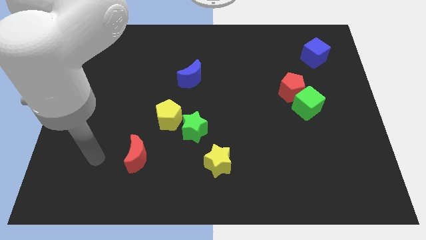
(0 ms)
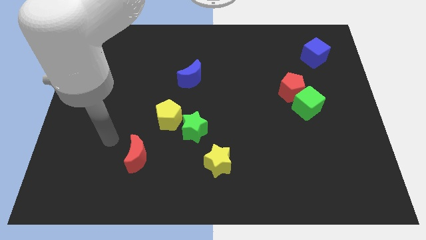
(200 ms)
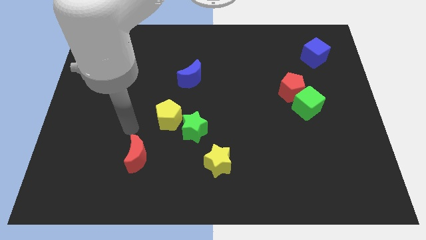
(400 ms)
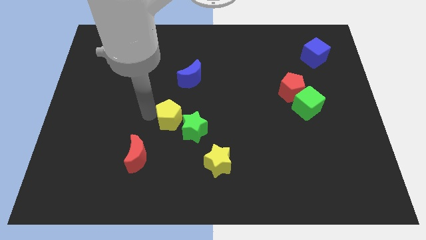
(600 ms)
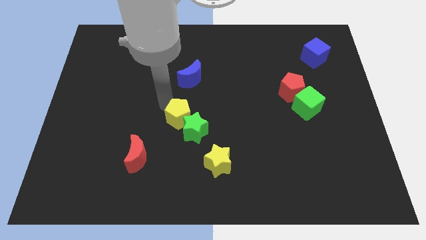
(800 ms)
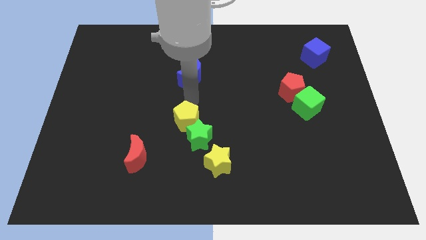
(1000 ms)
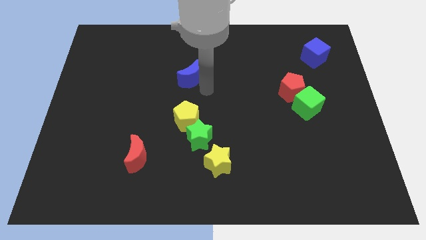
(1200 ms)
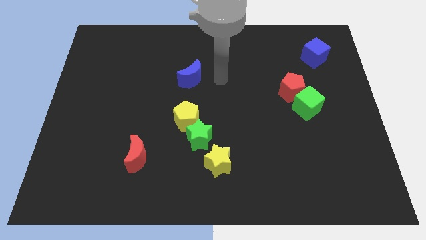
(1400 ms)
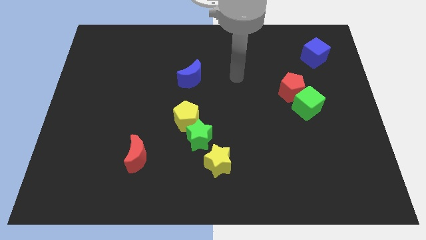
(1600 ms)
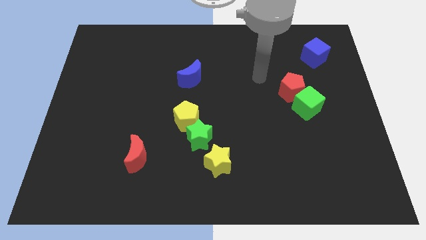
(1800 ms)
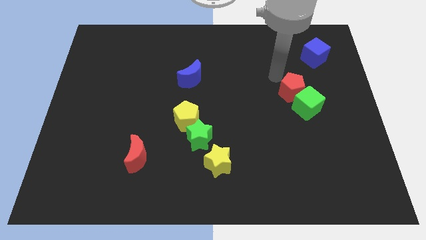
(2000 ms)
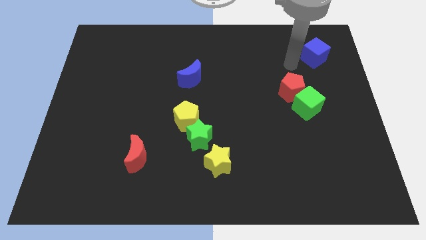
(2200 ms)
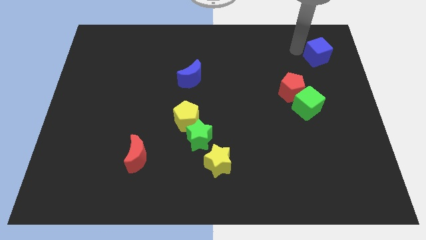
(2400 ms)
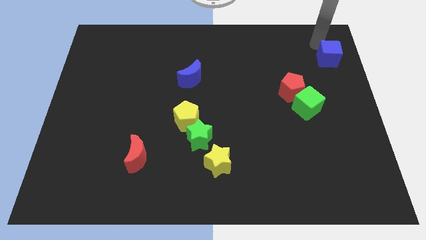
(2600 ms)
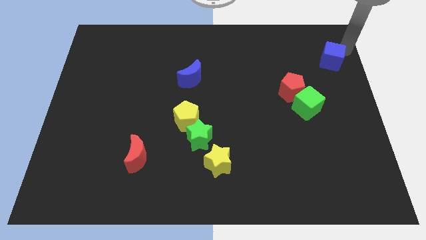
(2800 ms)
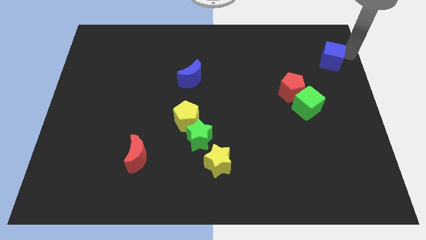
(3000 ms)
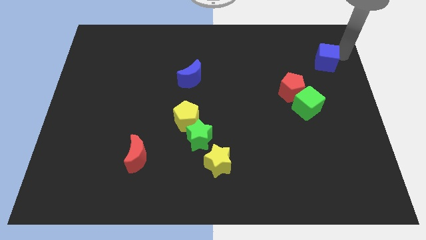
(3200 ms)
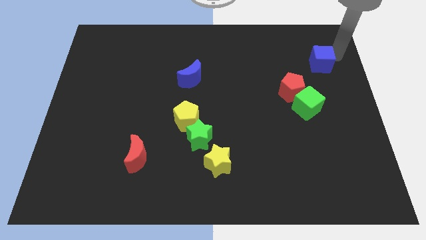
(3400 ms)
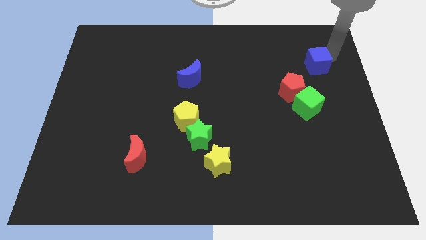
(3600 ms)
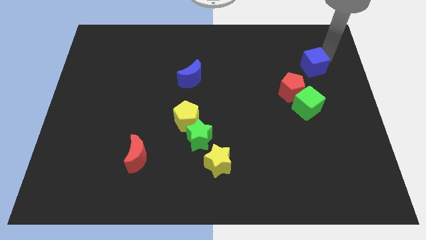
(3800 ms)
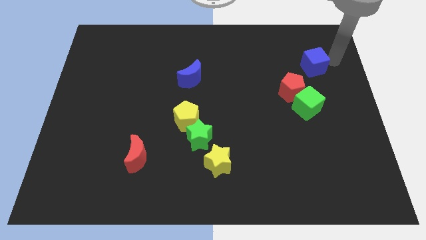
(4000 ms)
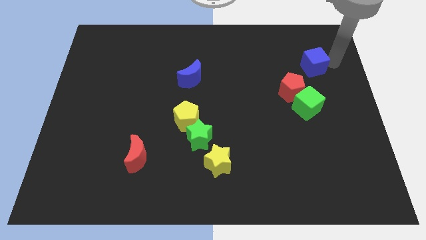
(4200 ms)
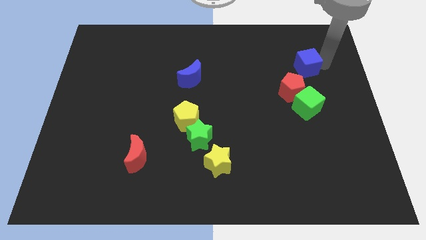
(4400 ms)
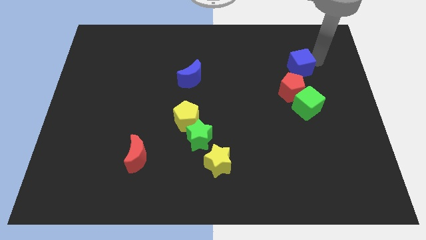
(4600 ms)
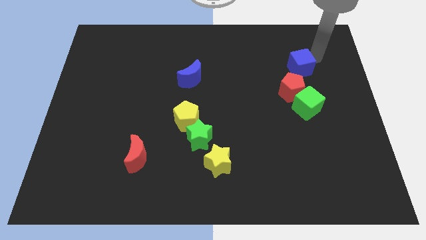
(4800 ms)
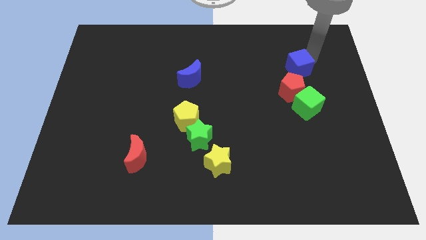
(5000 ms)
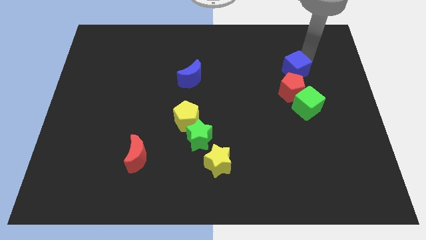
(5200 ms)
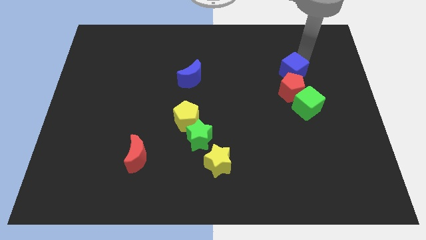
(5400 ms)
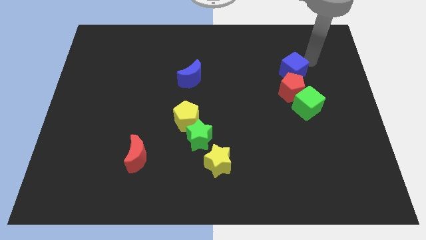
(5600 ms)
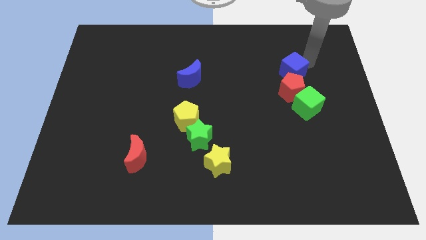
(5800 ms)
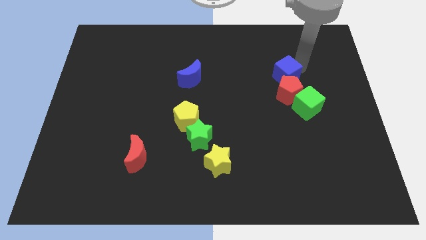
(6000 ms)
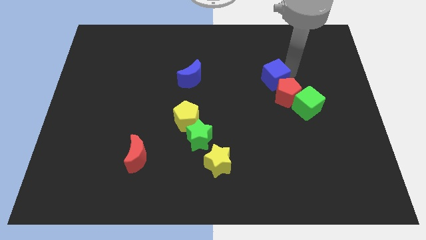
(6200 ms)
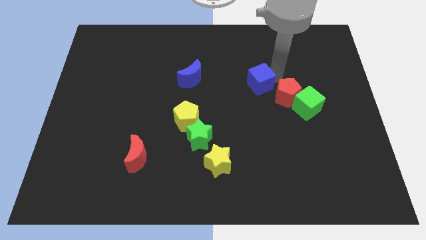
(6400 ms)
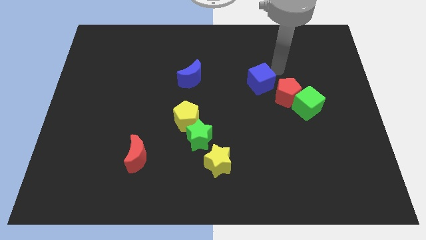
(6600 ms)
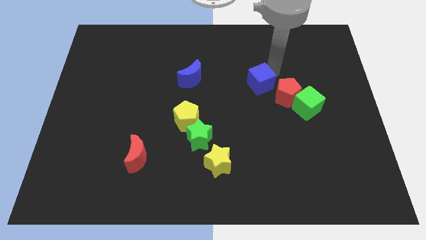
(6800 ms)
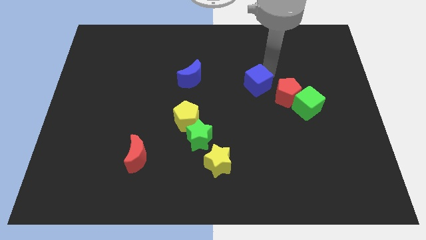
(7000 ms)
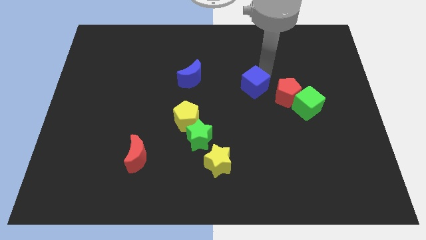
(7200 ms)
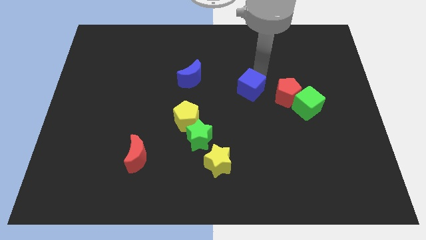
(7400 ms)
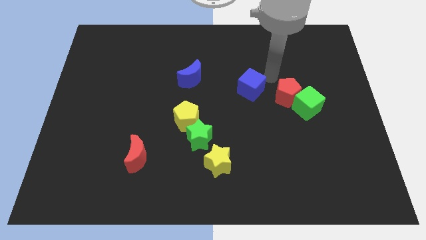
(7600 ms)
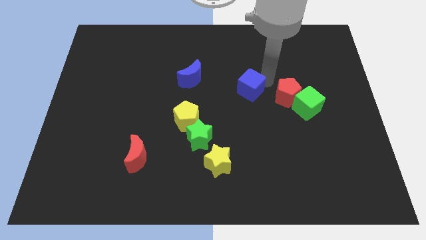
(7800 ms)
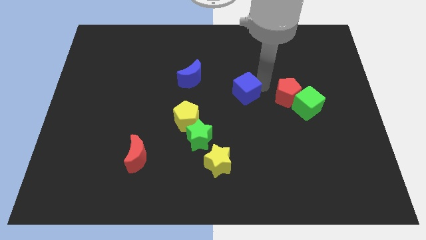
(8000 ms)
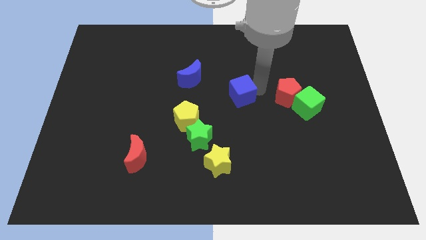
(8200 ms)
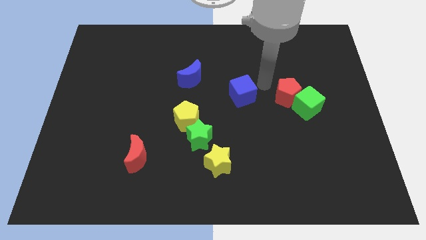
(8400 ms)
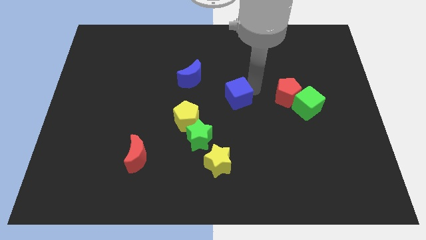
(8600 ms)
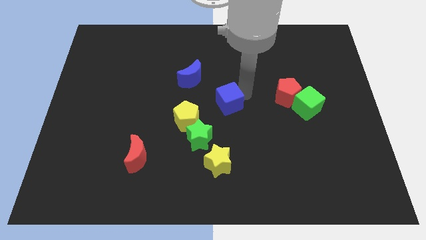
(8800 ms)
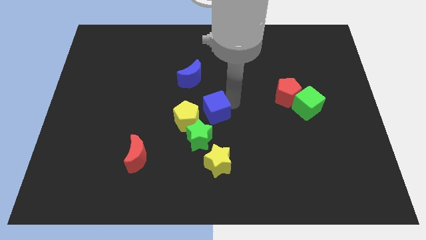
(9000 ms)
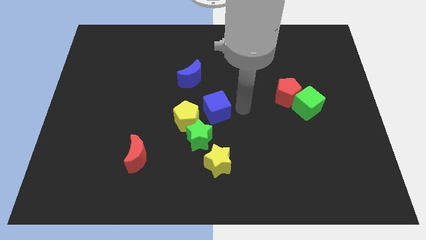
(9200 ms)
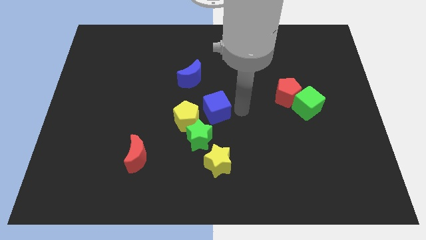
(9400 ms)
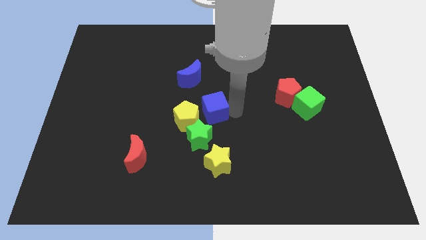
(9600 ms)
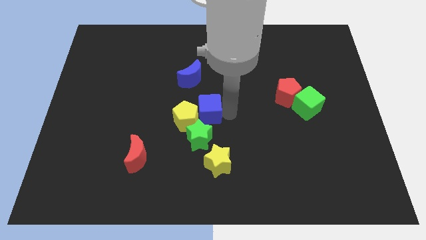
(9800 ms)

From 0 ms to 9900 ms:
put the blue cube to the bottom of the blue moon

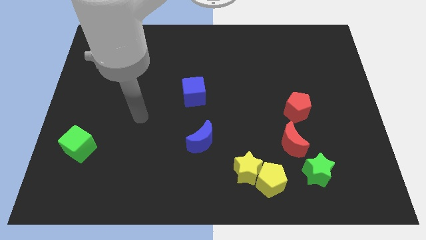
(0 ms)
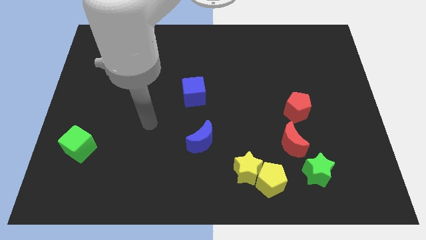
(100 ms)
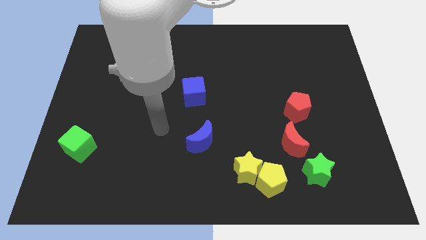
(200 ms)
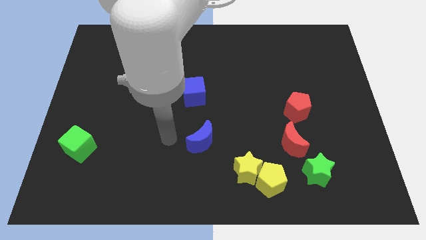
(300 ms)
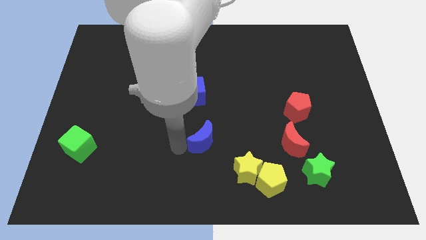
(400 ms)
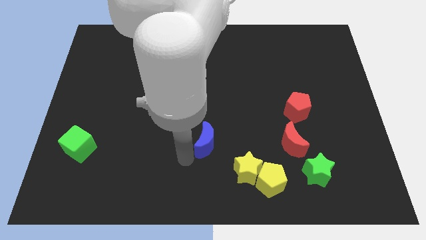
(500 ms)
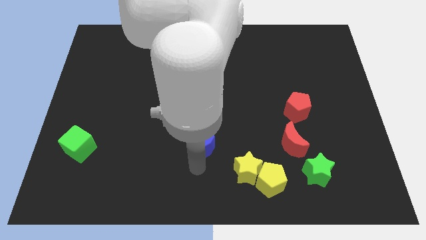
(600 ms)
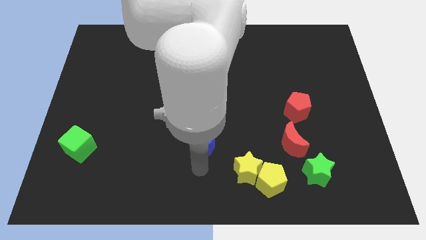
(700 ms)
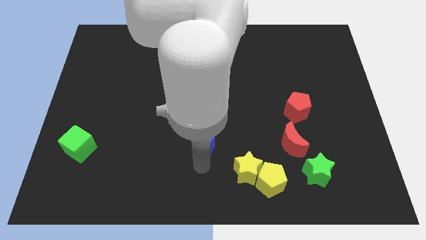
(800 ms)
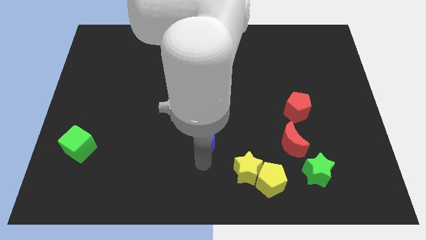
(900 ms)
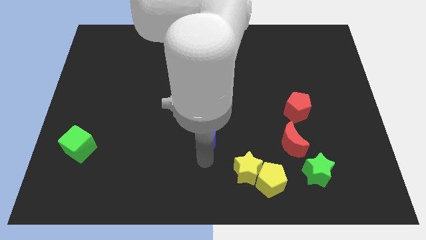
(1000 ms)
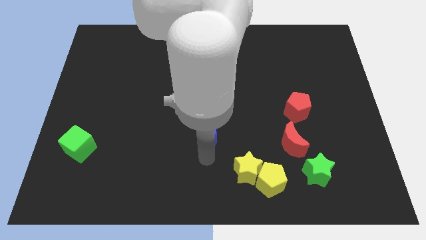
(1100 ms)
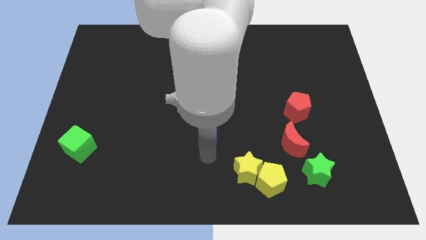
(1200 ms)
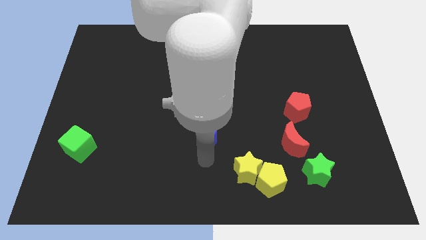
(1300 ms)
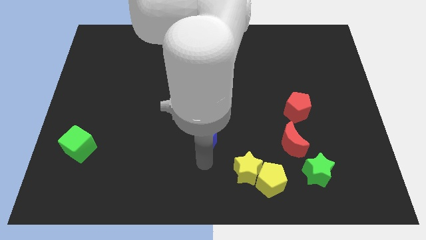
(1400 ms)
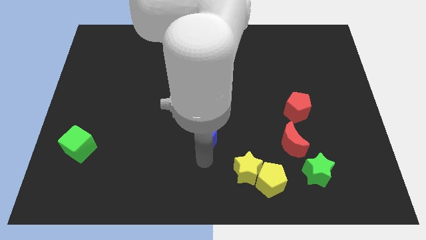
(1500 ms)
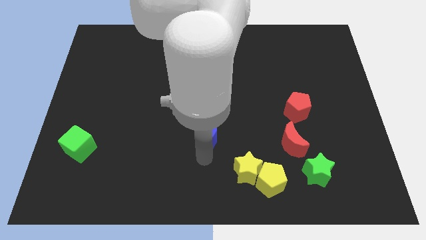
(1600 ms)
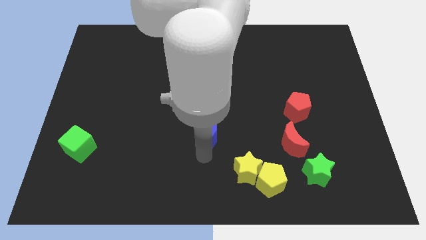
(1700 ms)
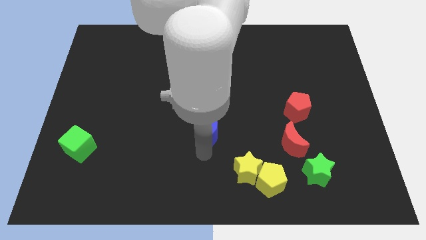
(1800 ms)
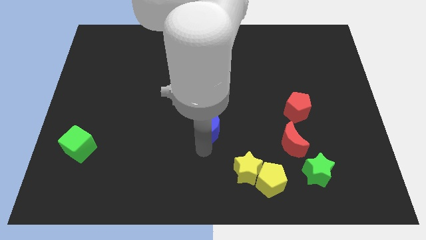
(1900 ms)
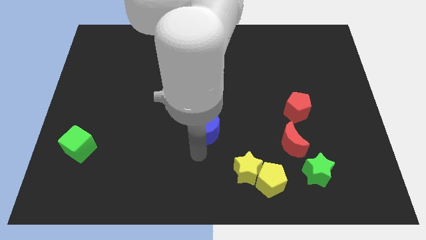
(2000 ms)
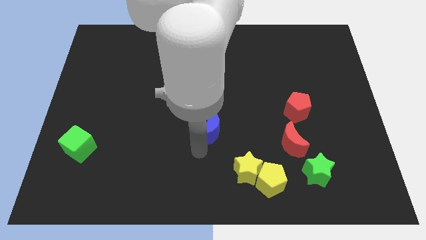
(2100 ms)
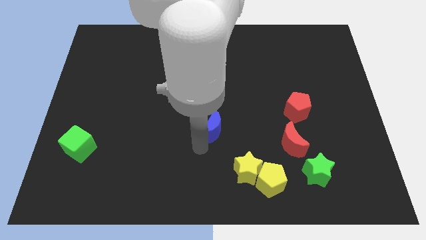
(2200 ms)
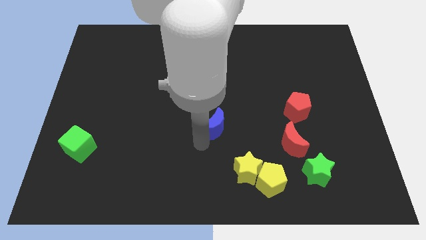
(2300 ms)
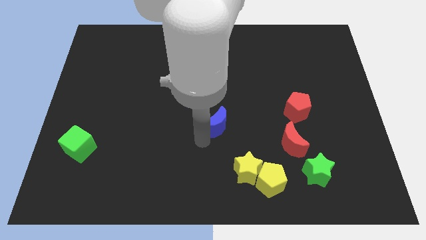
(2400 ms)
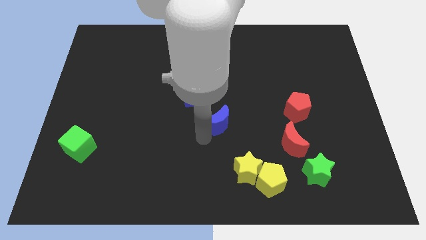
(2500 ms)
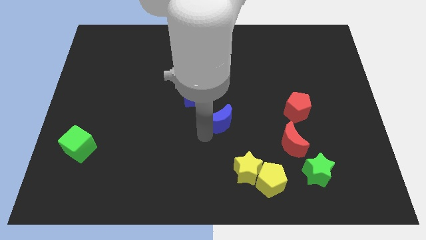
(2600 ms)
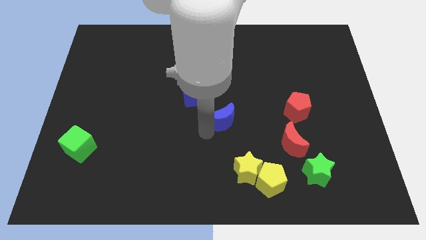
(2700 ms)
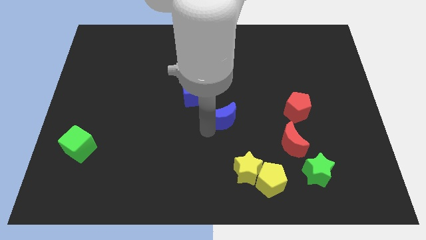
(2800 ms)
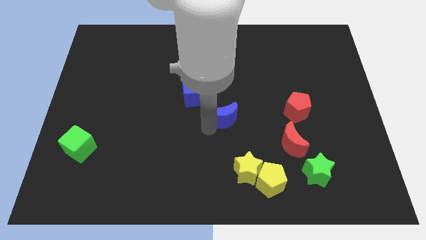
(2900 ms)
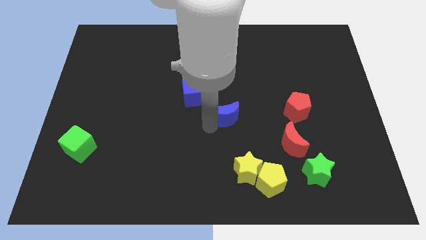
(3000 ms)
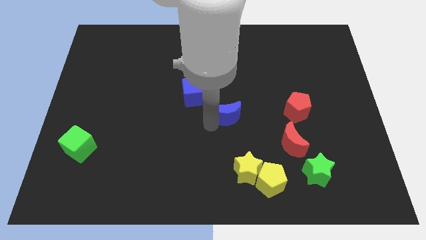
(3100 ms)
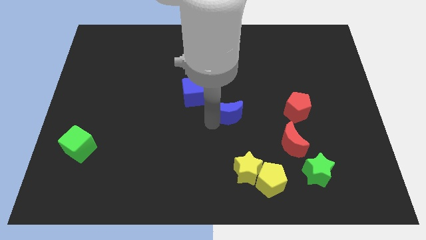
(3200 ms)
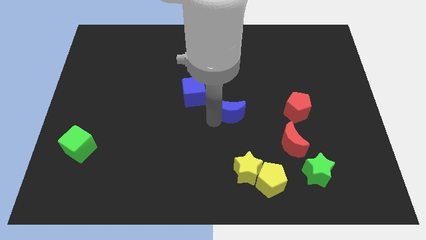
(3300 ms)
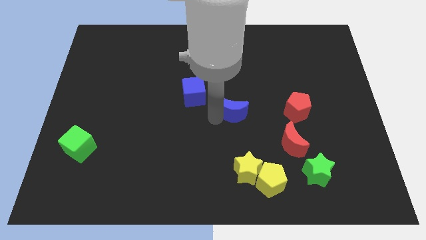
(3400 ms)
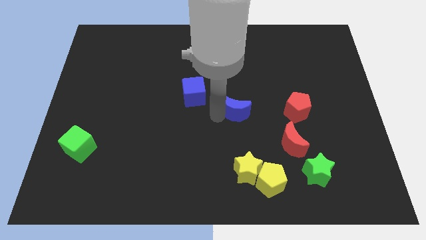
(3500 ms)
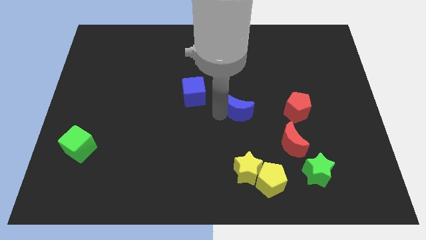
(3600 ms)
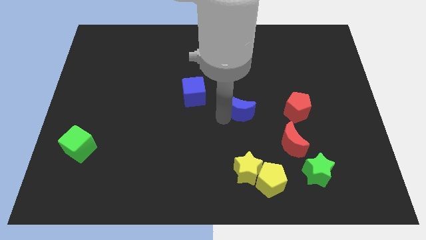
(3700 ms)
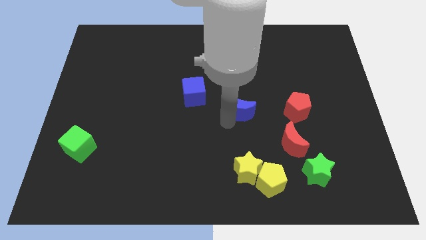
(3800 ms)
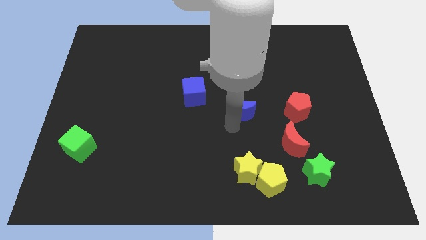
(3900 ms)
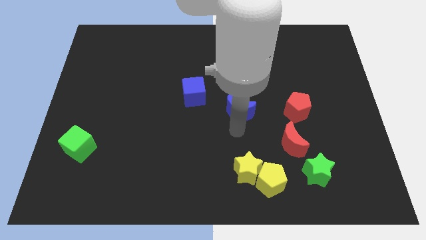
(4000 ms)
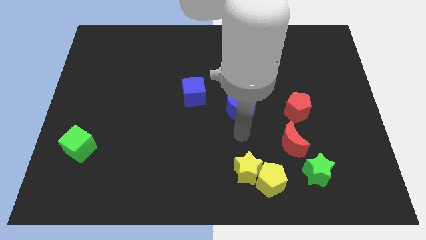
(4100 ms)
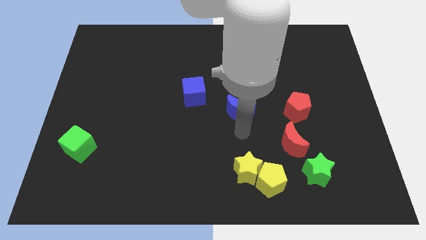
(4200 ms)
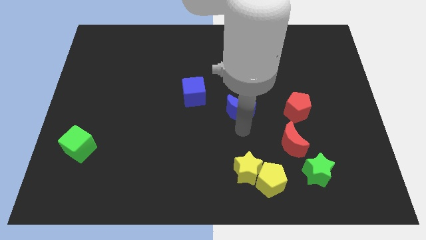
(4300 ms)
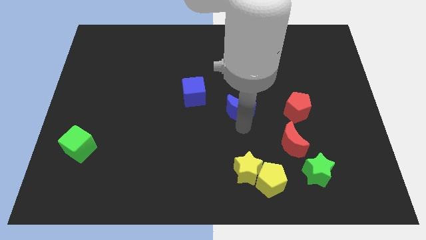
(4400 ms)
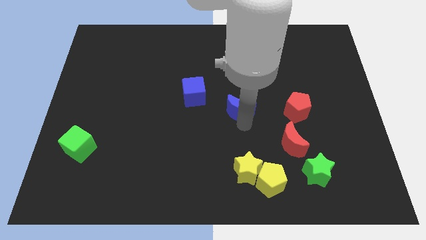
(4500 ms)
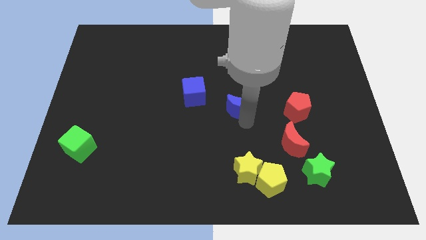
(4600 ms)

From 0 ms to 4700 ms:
put the blue moon to the right of the blue cube
